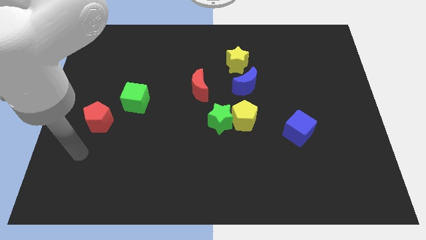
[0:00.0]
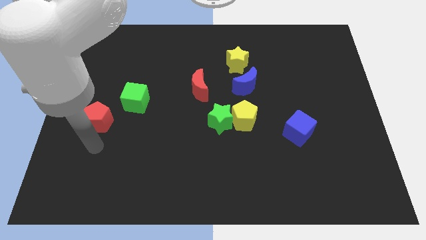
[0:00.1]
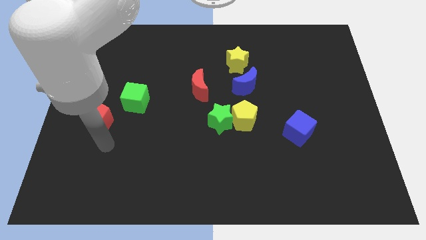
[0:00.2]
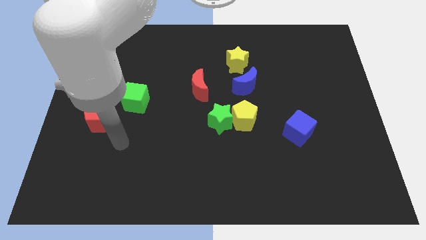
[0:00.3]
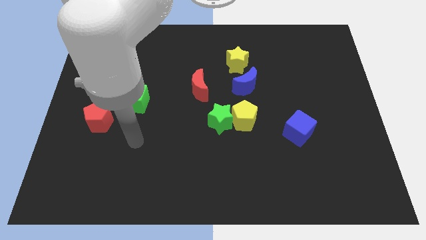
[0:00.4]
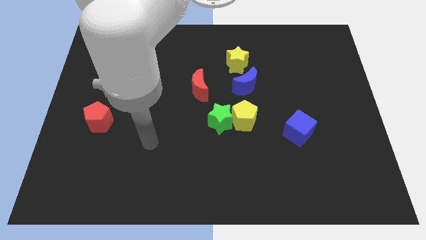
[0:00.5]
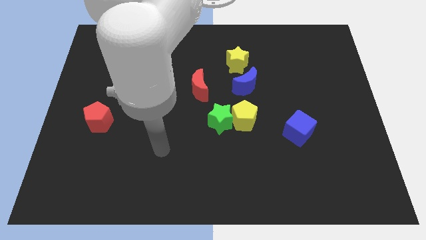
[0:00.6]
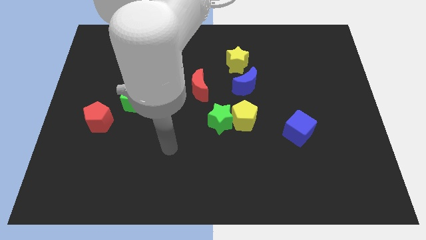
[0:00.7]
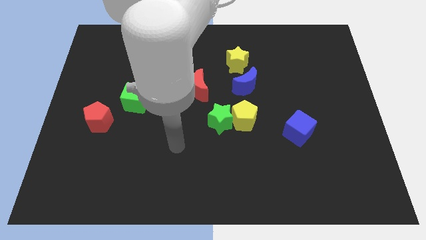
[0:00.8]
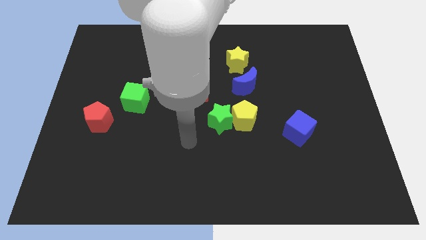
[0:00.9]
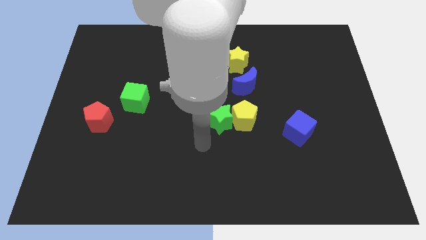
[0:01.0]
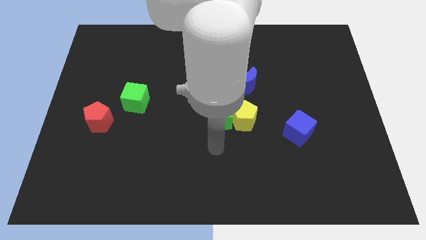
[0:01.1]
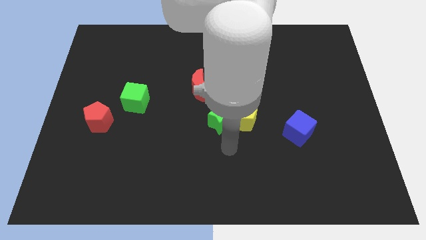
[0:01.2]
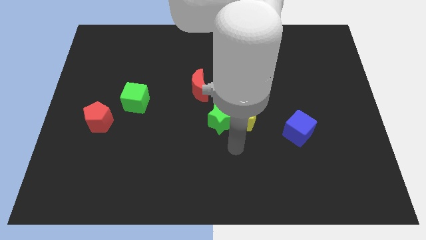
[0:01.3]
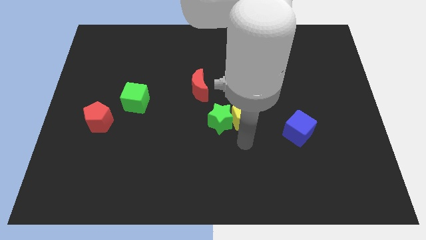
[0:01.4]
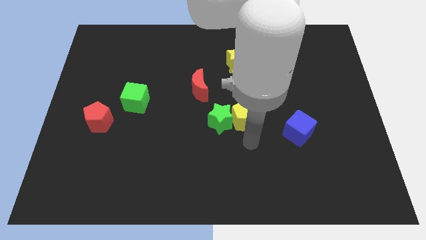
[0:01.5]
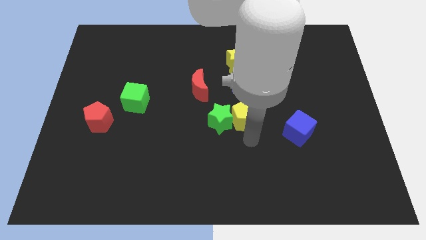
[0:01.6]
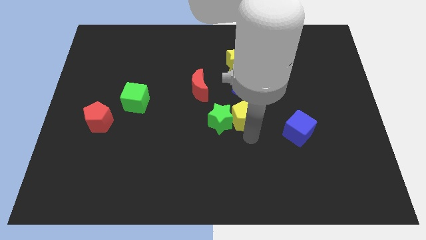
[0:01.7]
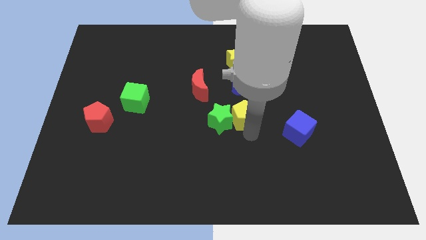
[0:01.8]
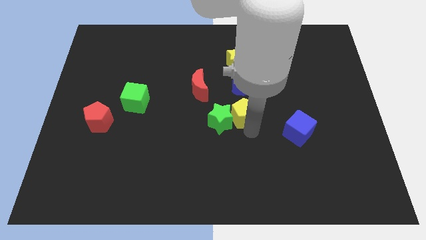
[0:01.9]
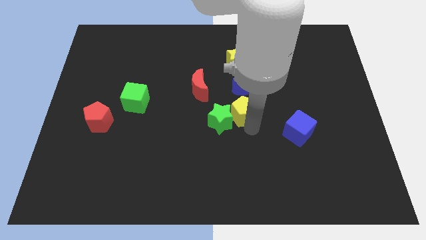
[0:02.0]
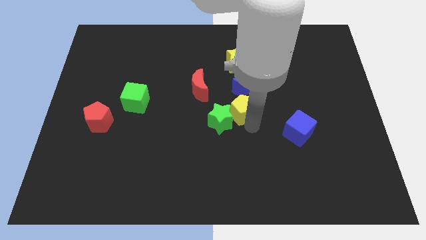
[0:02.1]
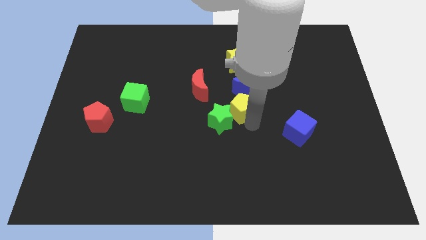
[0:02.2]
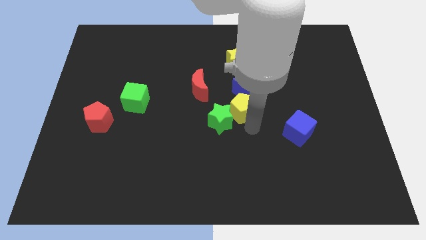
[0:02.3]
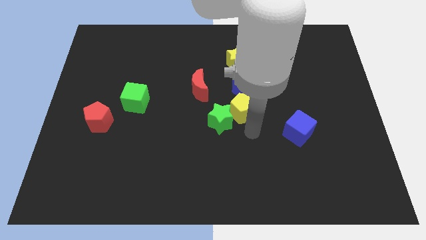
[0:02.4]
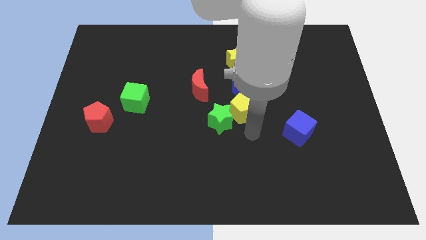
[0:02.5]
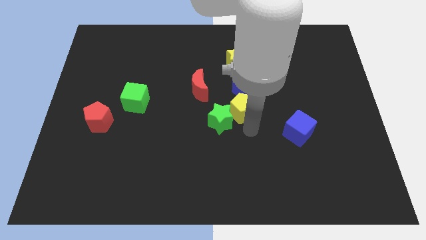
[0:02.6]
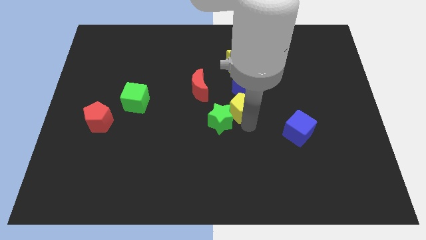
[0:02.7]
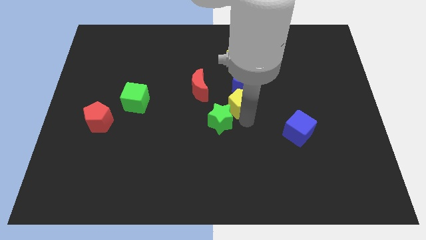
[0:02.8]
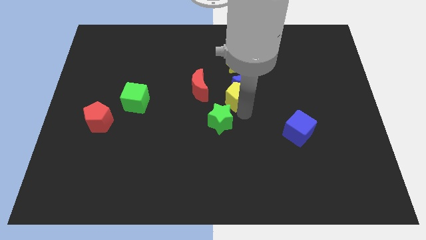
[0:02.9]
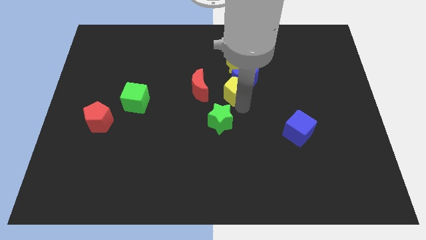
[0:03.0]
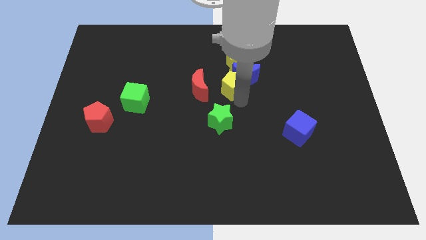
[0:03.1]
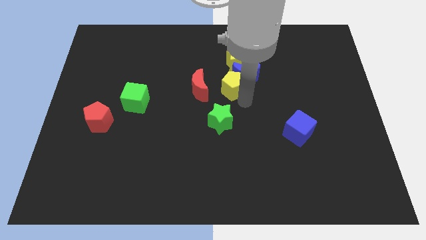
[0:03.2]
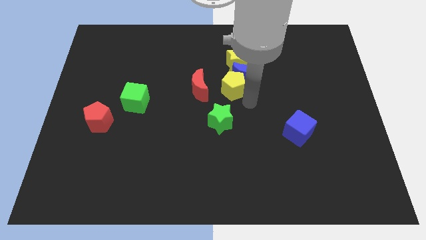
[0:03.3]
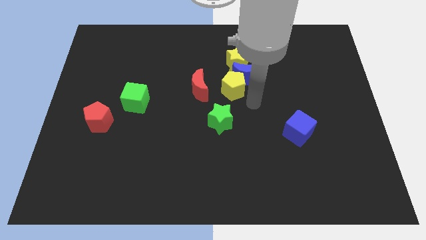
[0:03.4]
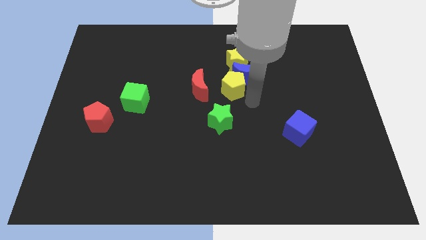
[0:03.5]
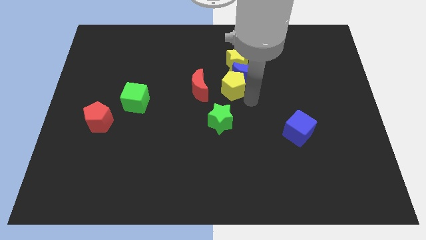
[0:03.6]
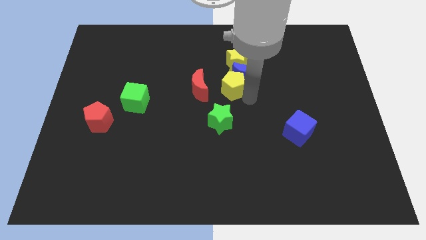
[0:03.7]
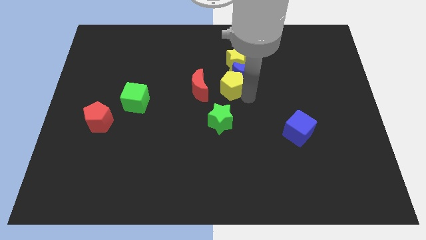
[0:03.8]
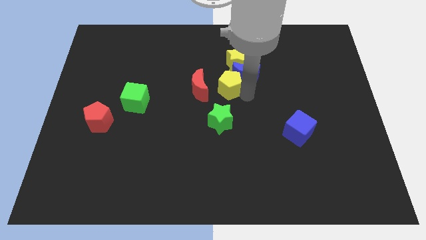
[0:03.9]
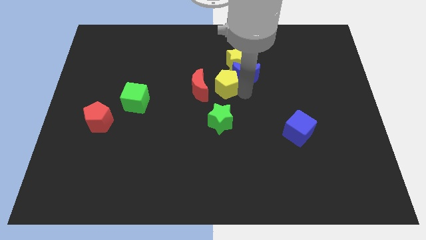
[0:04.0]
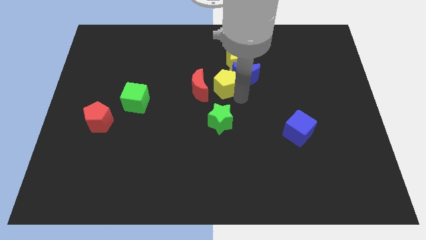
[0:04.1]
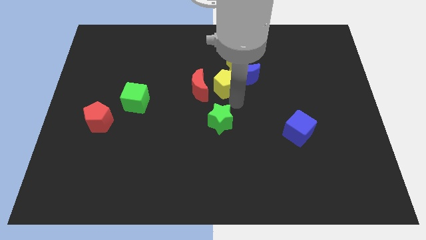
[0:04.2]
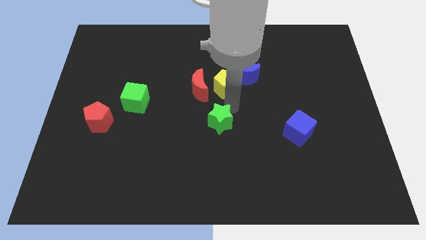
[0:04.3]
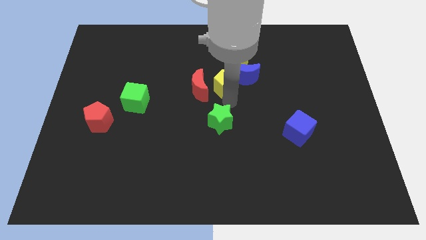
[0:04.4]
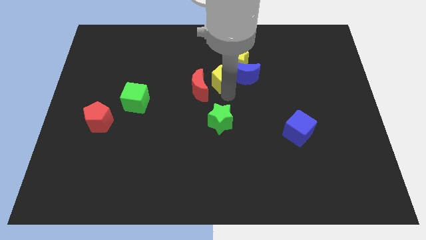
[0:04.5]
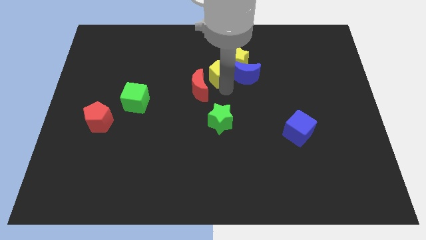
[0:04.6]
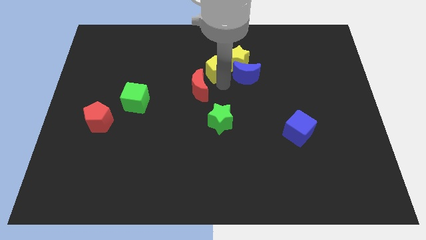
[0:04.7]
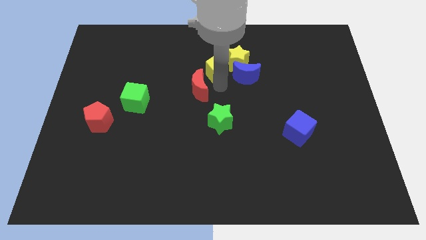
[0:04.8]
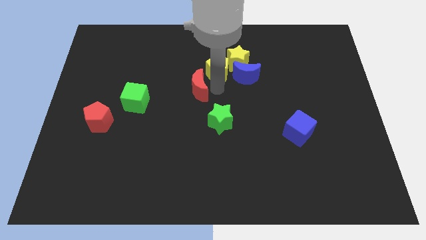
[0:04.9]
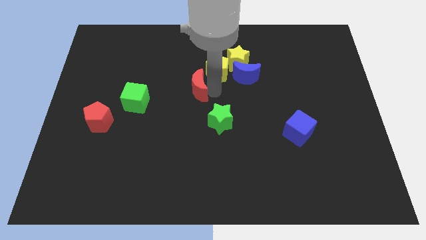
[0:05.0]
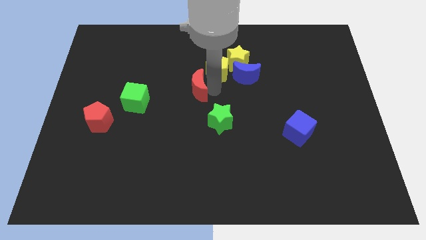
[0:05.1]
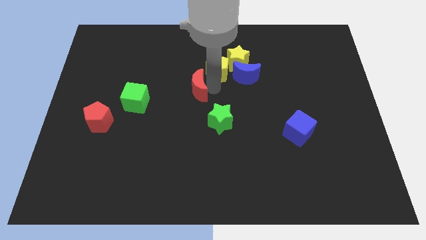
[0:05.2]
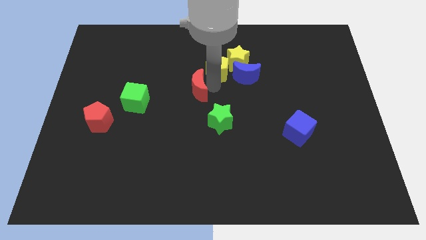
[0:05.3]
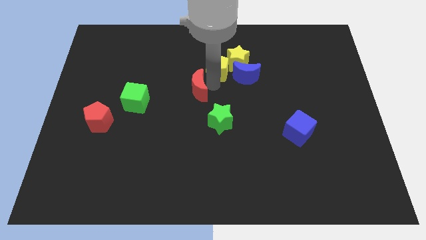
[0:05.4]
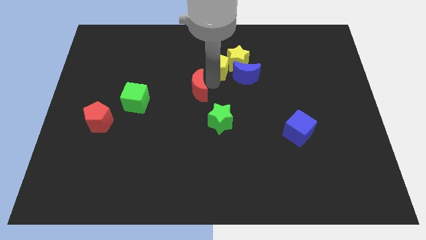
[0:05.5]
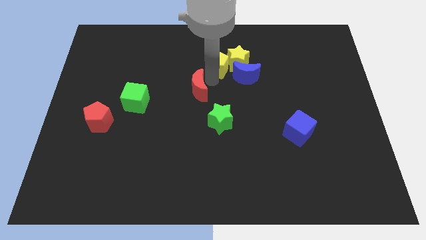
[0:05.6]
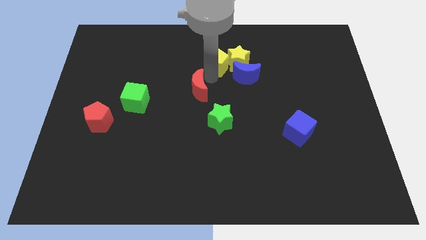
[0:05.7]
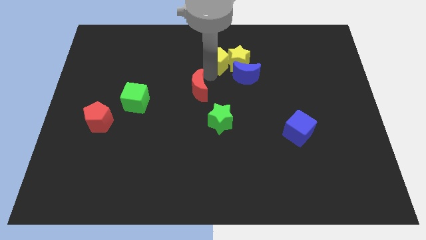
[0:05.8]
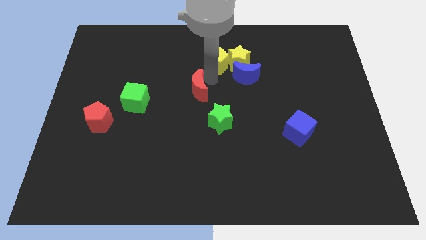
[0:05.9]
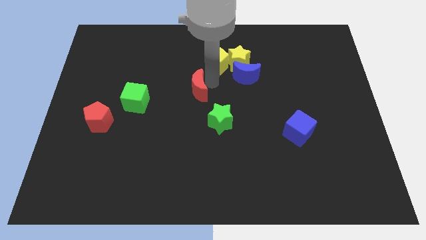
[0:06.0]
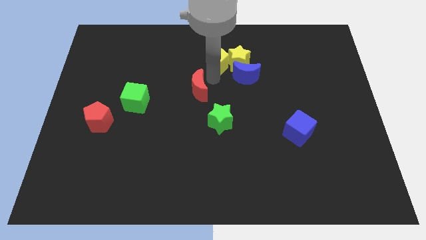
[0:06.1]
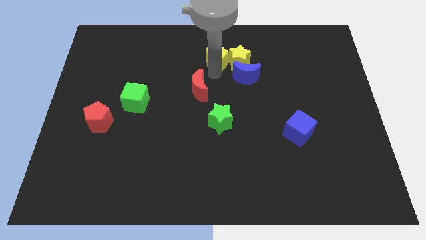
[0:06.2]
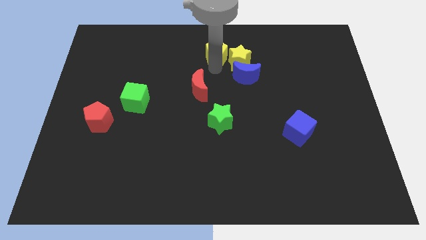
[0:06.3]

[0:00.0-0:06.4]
move the yellow pentagon to the top side

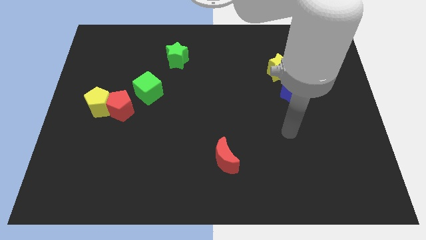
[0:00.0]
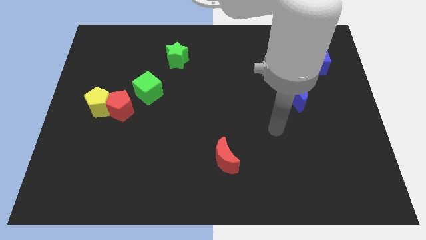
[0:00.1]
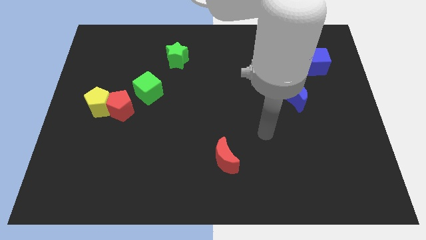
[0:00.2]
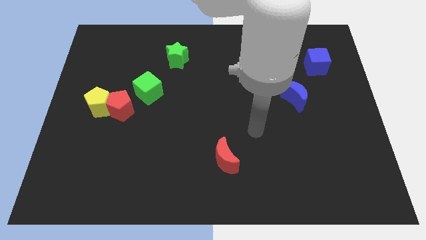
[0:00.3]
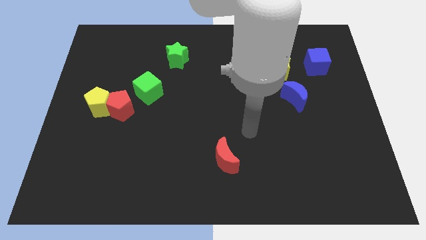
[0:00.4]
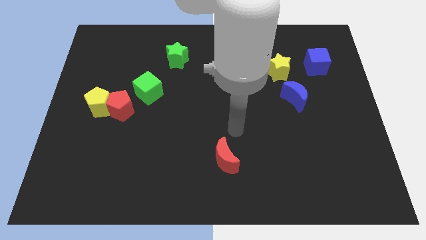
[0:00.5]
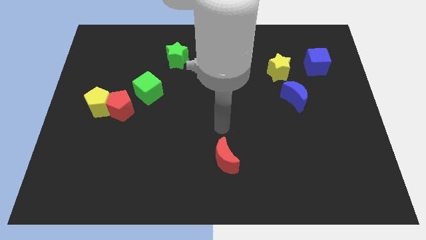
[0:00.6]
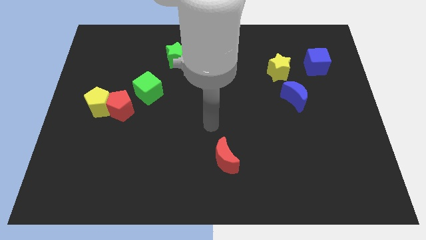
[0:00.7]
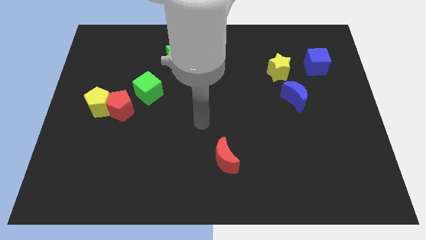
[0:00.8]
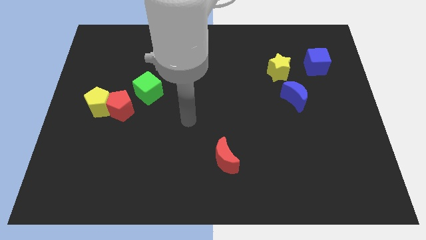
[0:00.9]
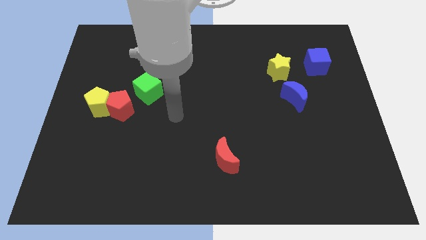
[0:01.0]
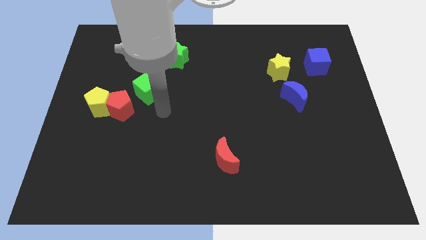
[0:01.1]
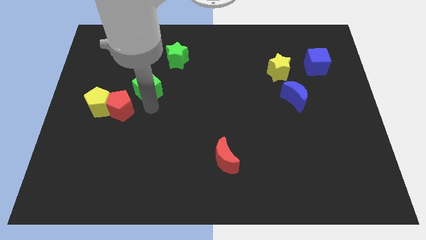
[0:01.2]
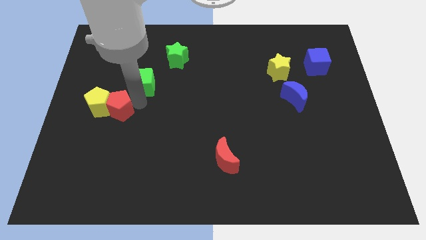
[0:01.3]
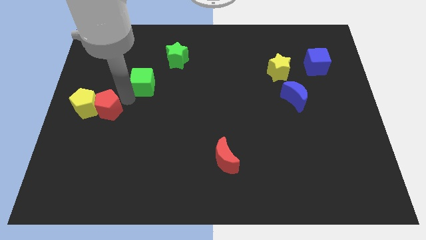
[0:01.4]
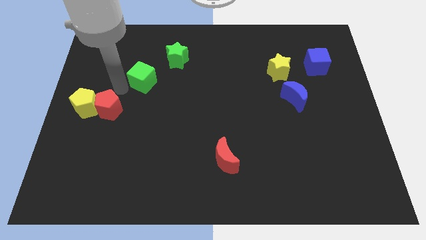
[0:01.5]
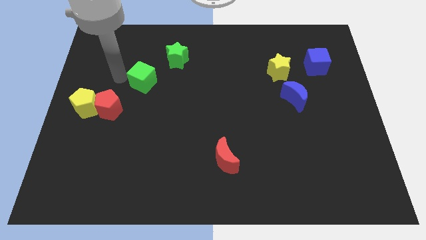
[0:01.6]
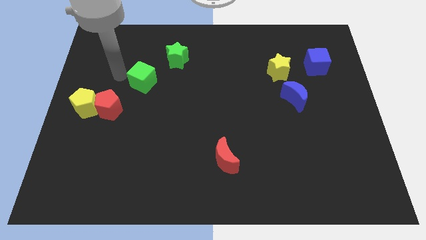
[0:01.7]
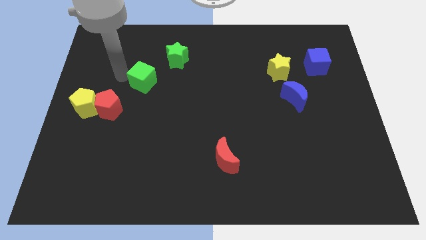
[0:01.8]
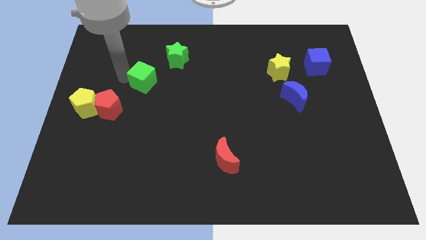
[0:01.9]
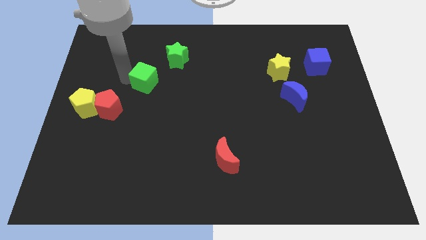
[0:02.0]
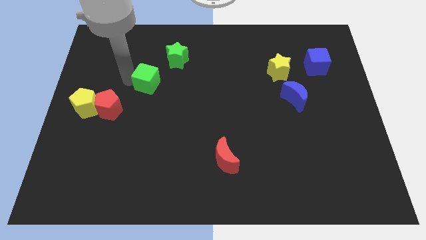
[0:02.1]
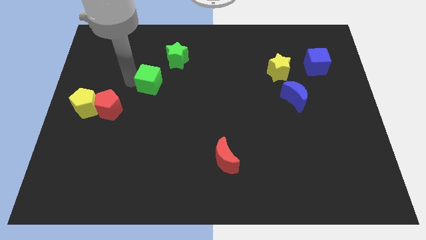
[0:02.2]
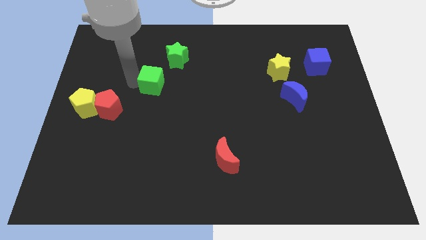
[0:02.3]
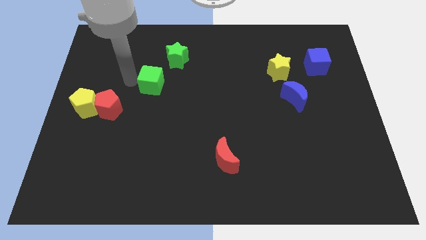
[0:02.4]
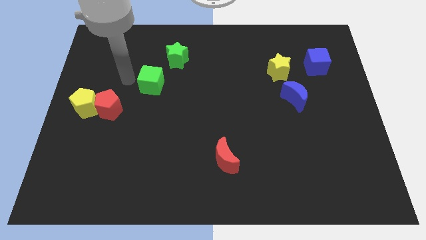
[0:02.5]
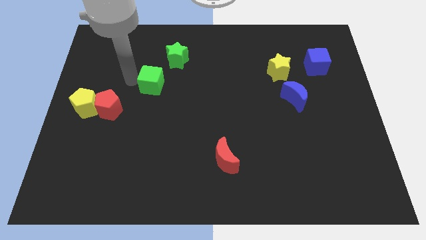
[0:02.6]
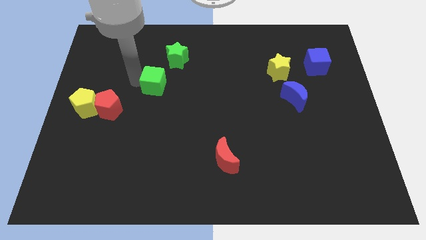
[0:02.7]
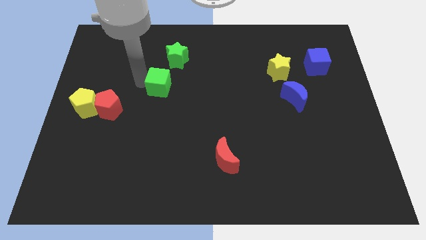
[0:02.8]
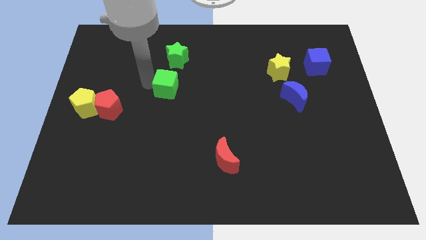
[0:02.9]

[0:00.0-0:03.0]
slide the green cube to the center of the board
